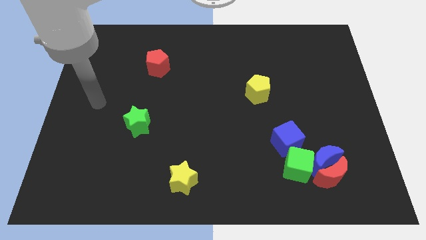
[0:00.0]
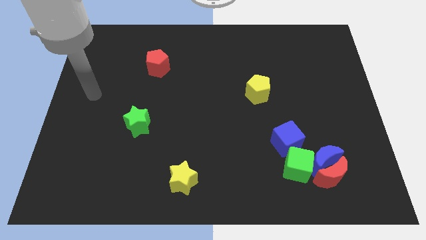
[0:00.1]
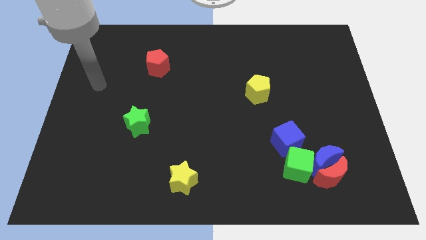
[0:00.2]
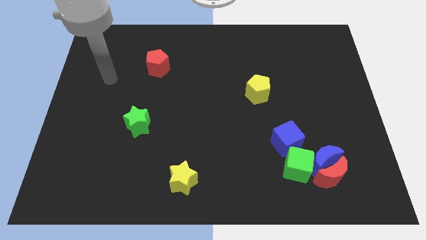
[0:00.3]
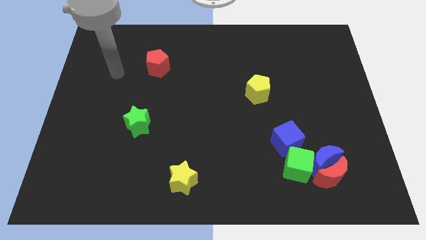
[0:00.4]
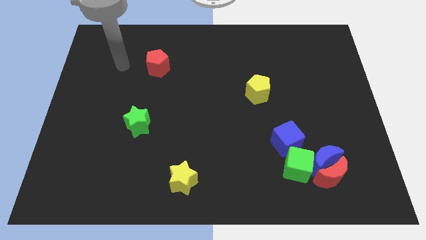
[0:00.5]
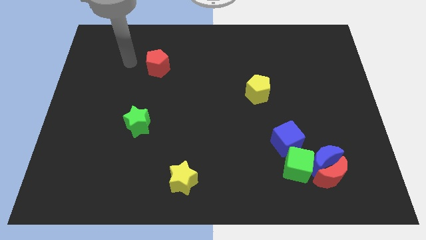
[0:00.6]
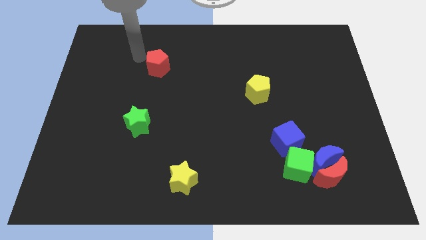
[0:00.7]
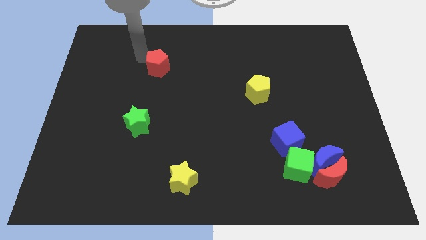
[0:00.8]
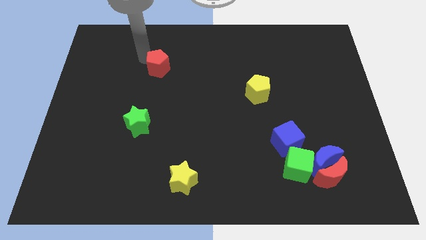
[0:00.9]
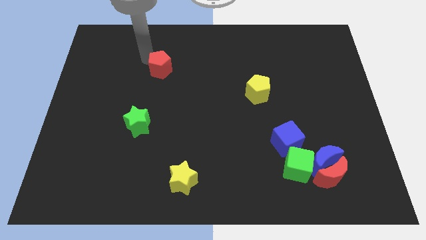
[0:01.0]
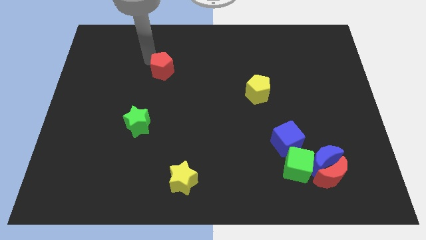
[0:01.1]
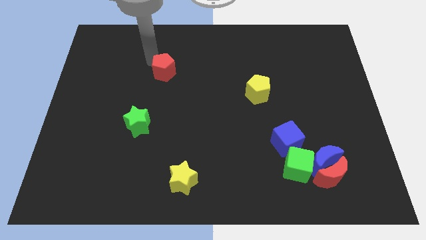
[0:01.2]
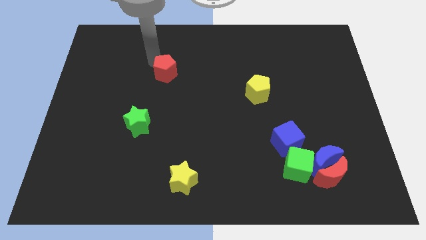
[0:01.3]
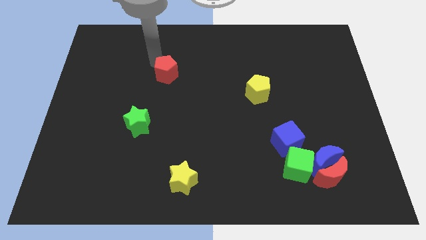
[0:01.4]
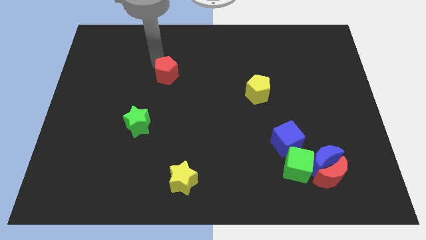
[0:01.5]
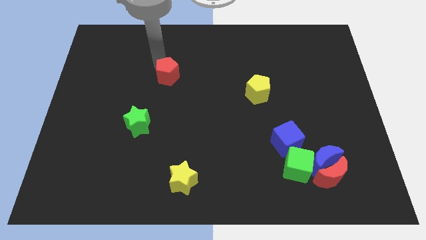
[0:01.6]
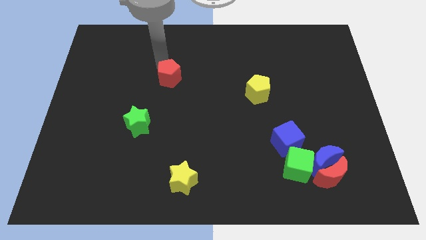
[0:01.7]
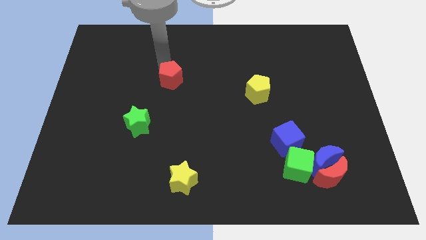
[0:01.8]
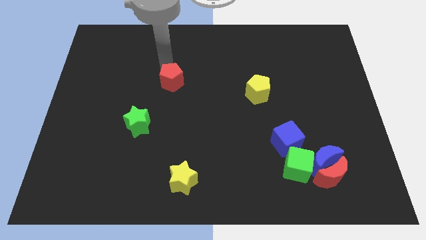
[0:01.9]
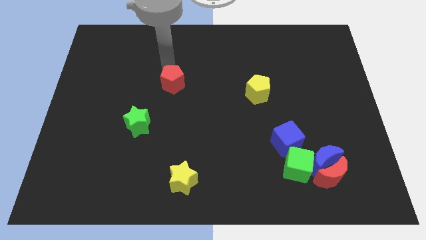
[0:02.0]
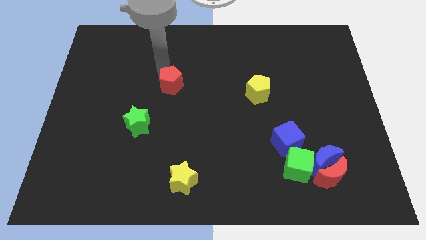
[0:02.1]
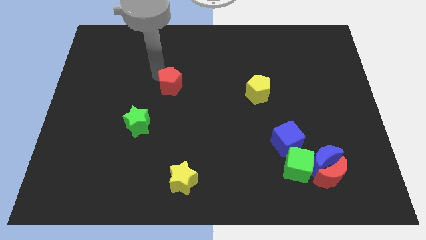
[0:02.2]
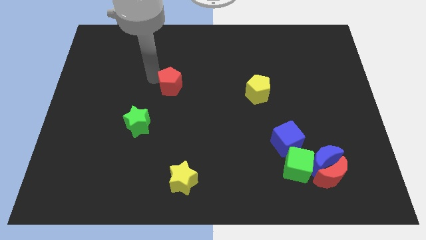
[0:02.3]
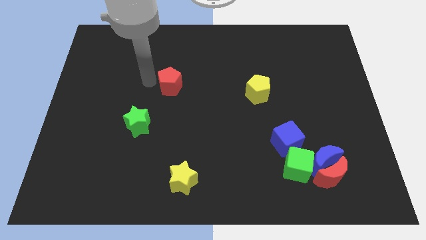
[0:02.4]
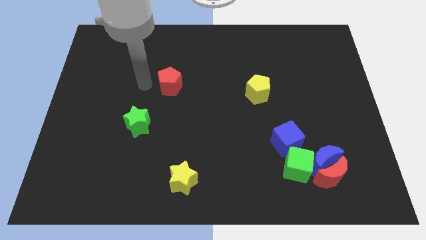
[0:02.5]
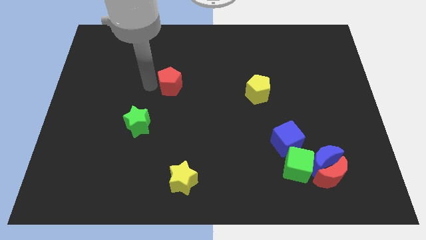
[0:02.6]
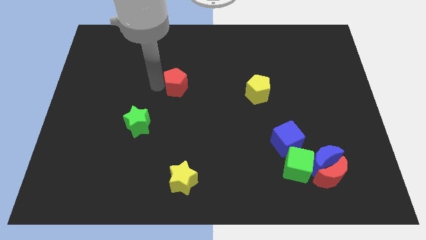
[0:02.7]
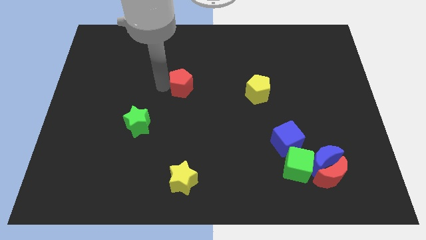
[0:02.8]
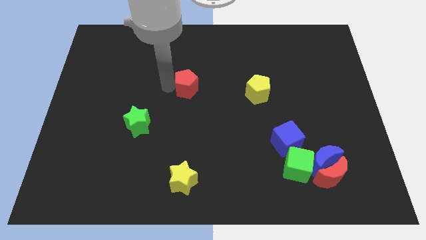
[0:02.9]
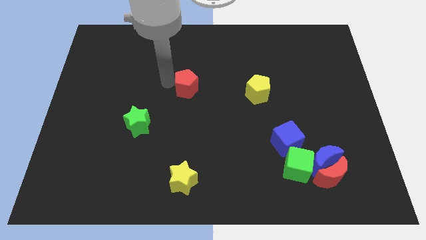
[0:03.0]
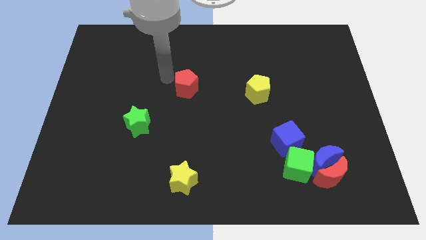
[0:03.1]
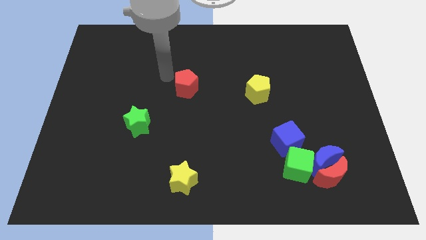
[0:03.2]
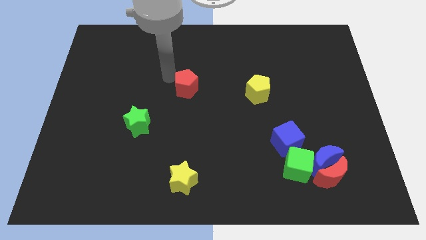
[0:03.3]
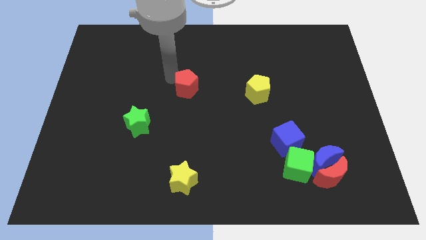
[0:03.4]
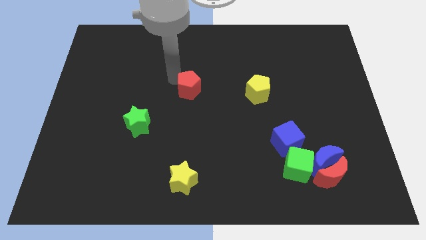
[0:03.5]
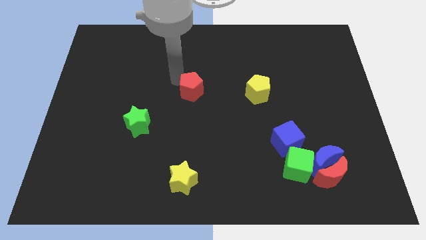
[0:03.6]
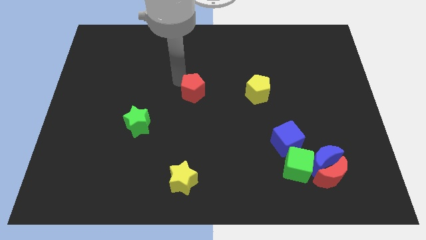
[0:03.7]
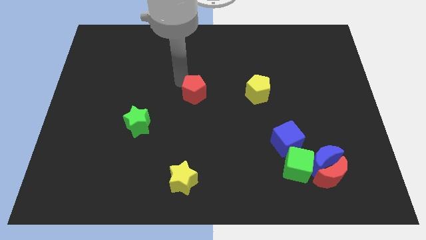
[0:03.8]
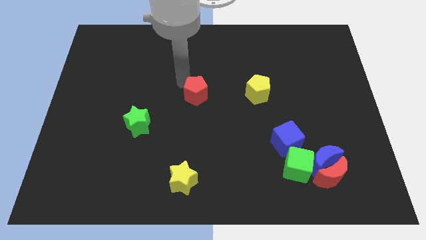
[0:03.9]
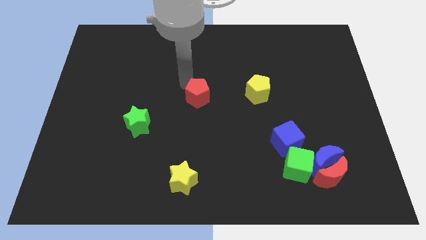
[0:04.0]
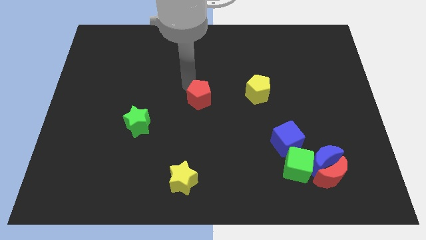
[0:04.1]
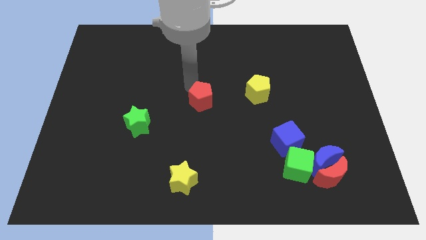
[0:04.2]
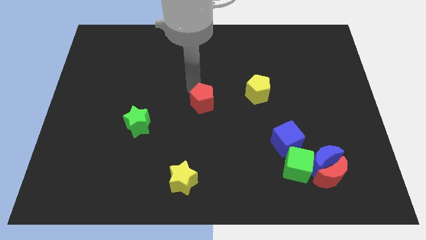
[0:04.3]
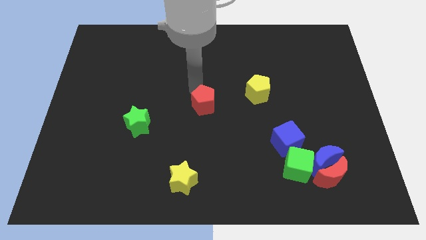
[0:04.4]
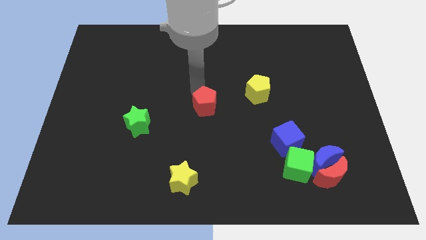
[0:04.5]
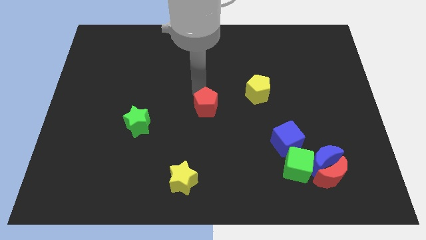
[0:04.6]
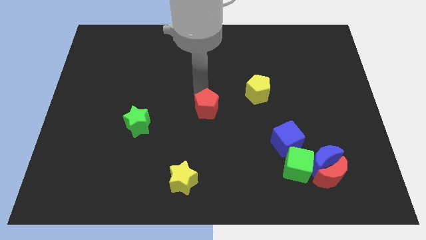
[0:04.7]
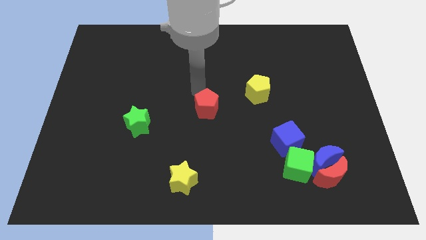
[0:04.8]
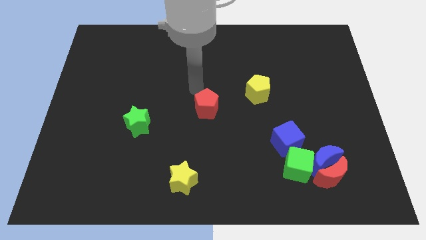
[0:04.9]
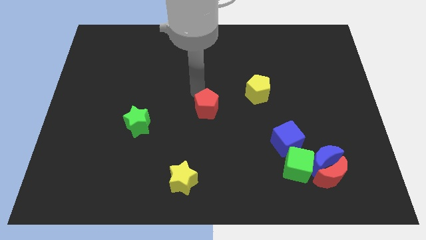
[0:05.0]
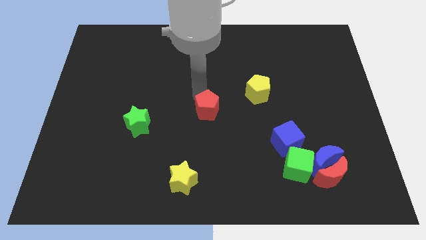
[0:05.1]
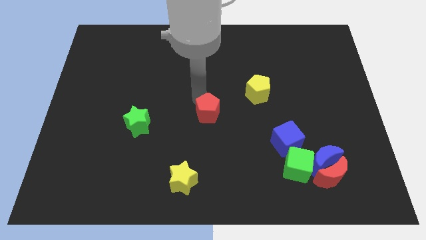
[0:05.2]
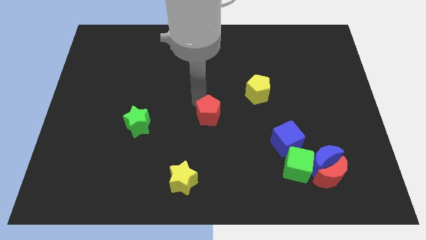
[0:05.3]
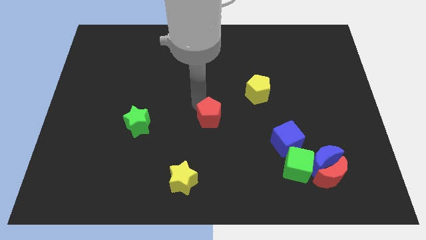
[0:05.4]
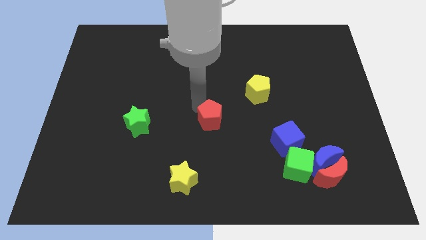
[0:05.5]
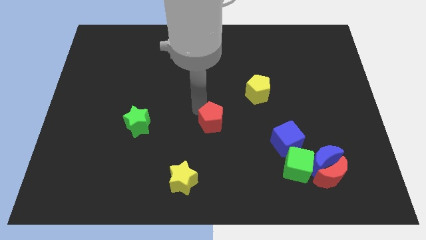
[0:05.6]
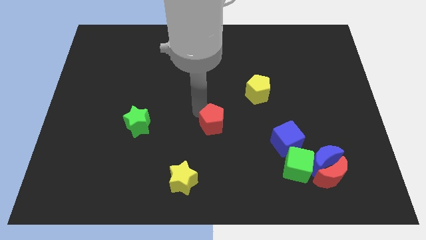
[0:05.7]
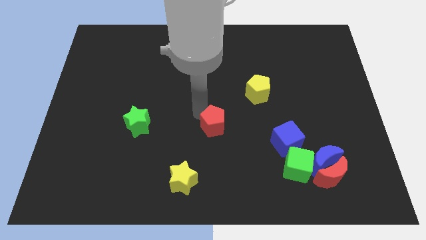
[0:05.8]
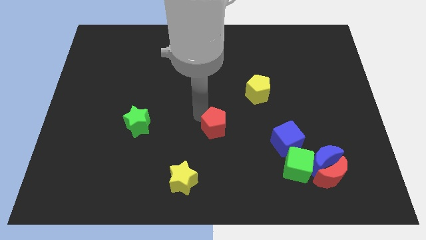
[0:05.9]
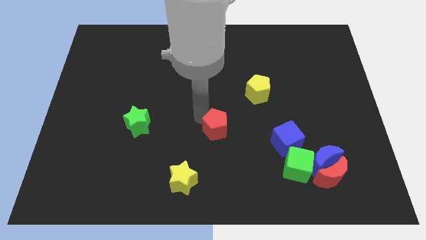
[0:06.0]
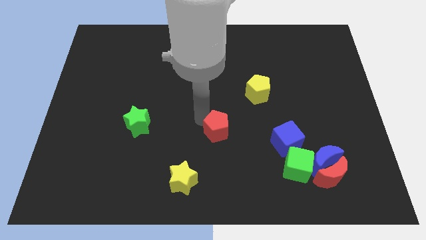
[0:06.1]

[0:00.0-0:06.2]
push the red pentagon to the left side of the blue cube

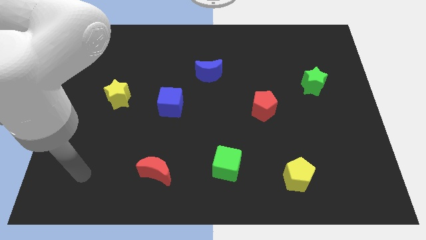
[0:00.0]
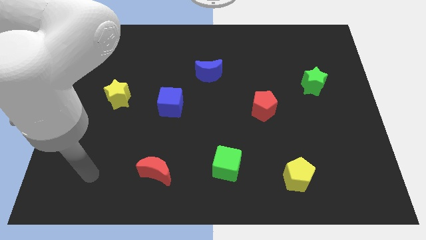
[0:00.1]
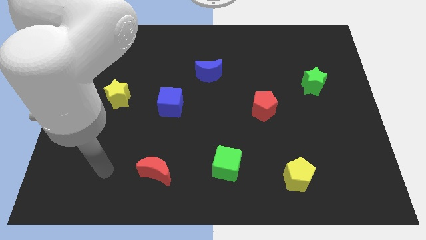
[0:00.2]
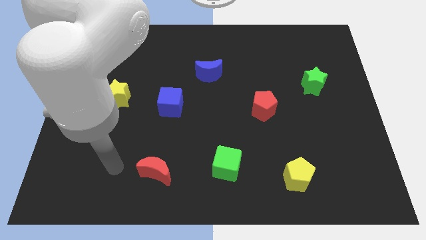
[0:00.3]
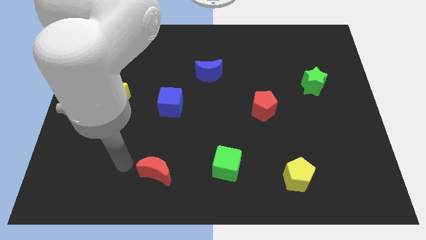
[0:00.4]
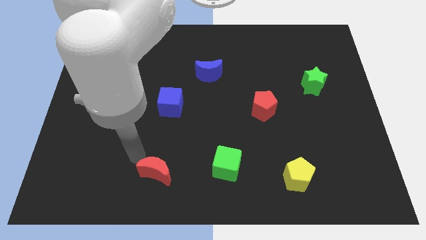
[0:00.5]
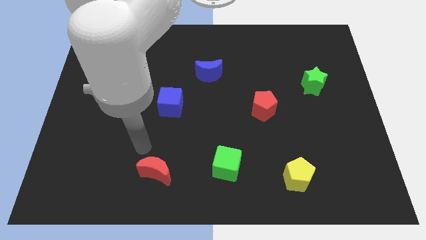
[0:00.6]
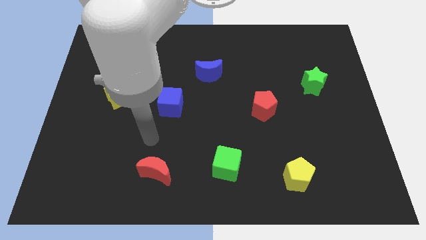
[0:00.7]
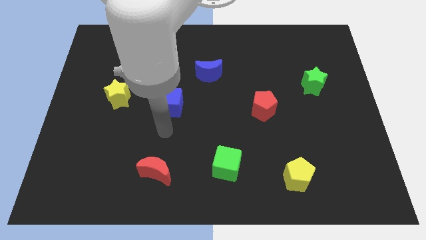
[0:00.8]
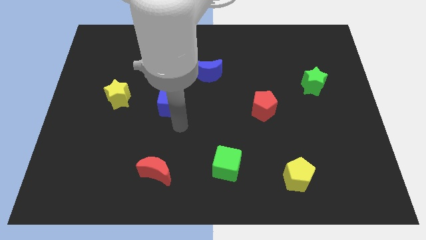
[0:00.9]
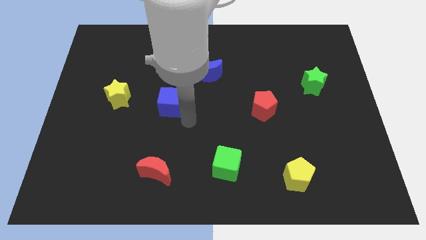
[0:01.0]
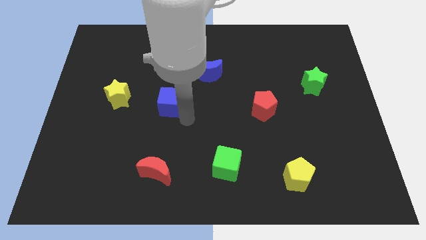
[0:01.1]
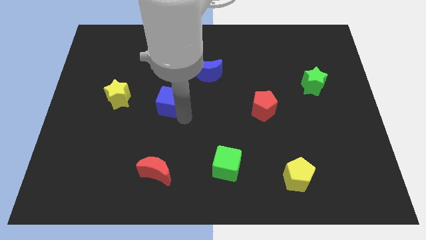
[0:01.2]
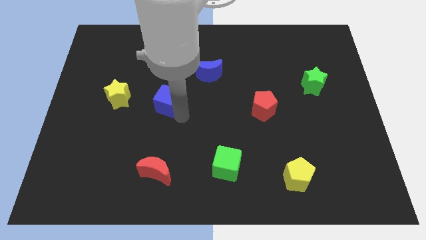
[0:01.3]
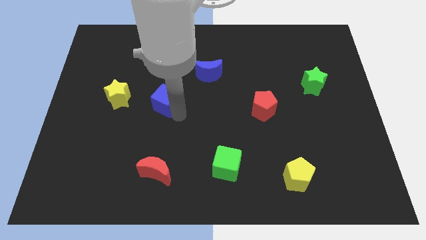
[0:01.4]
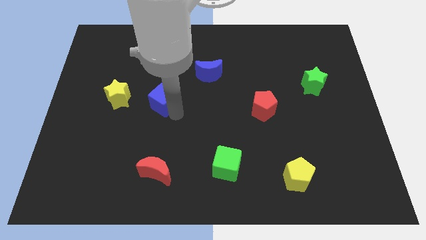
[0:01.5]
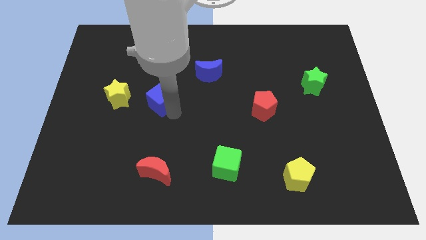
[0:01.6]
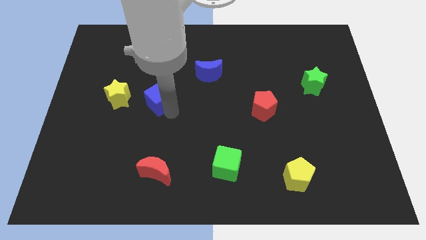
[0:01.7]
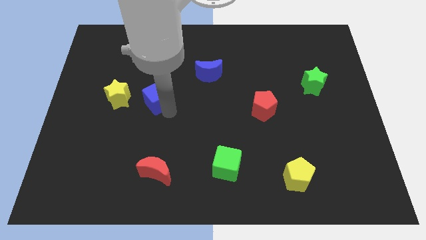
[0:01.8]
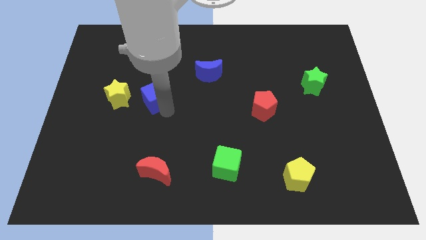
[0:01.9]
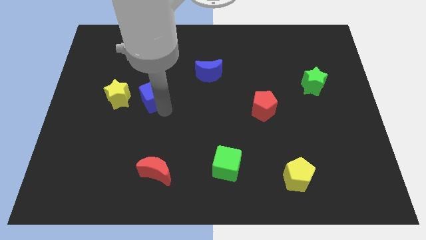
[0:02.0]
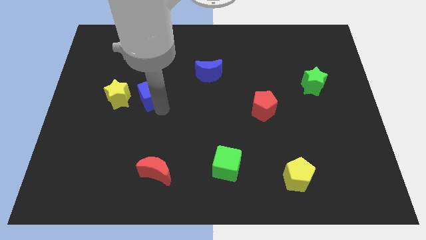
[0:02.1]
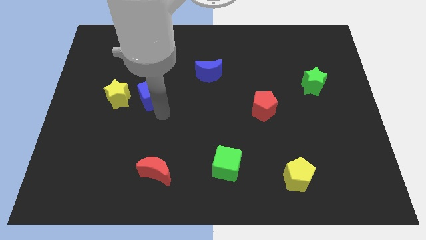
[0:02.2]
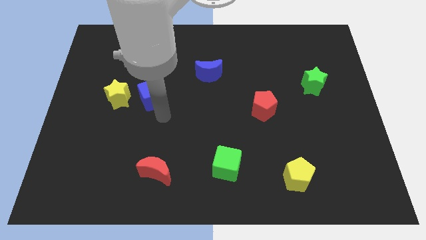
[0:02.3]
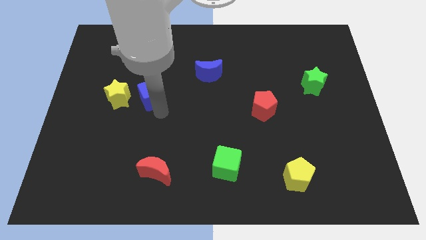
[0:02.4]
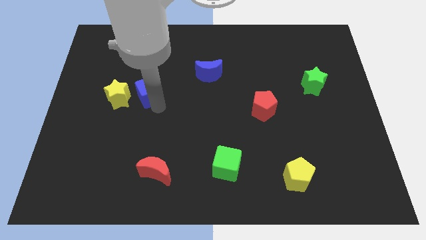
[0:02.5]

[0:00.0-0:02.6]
push the blue cube to the top right side of the yellow star
